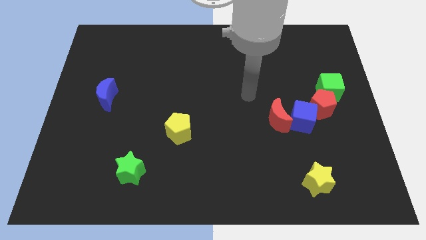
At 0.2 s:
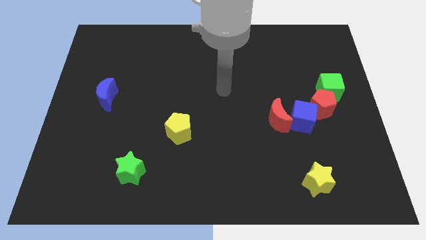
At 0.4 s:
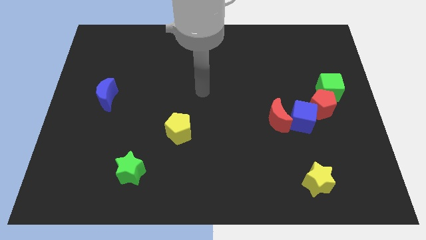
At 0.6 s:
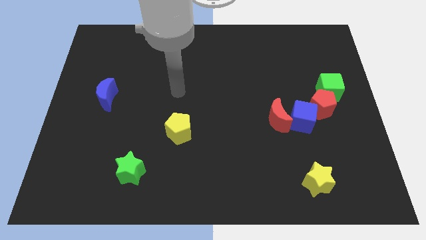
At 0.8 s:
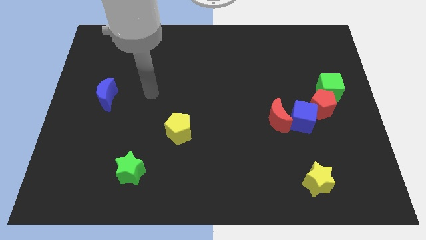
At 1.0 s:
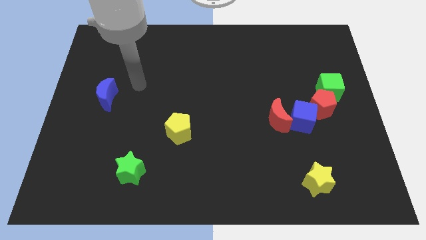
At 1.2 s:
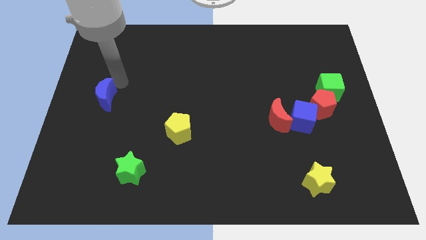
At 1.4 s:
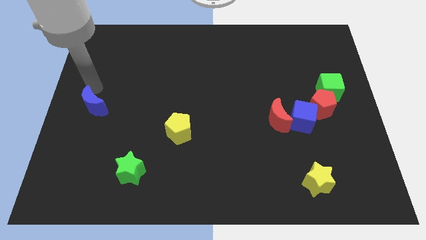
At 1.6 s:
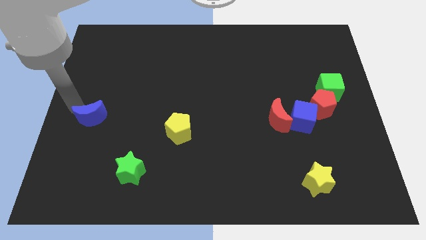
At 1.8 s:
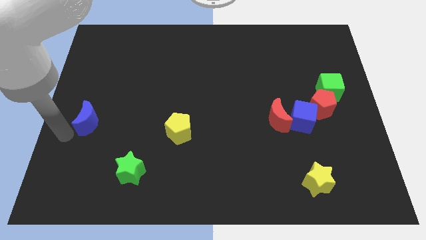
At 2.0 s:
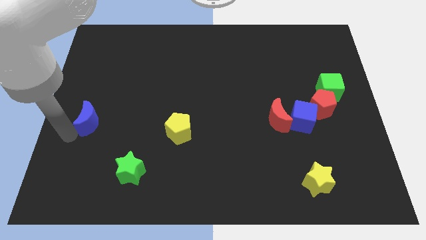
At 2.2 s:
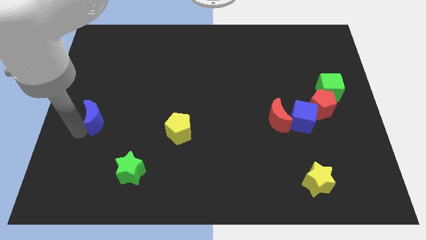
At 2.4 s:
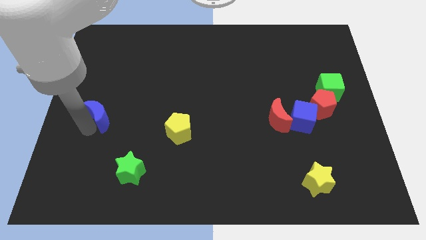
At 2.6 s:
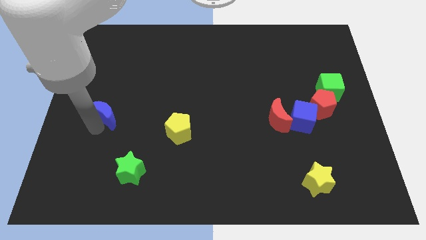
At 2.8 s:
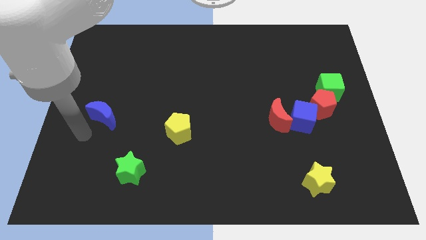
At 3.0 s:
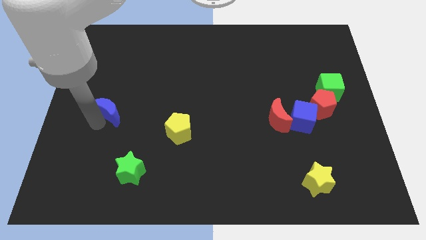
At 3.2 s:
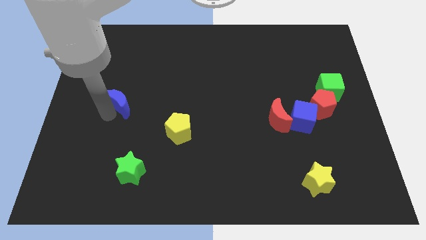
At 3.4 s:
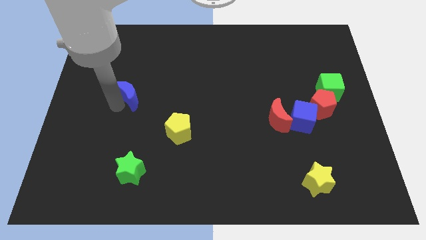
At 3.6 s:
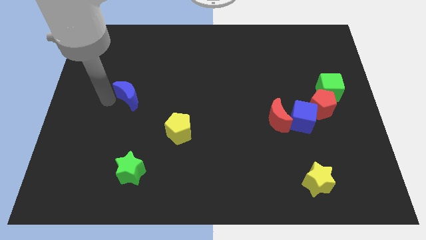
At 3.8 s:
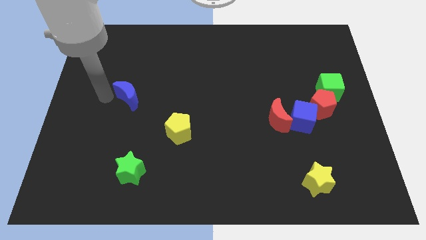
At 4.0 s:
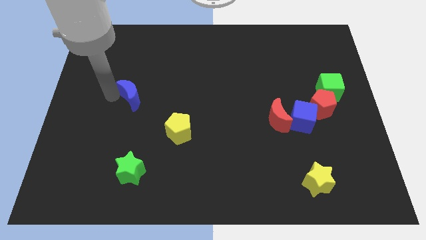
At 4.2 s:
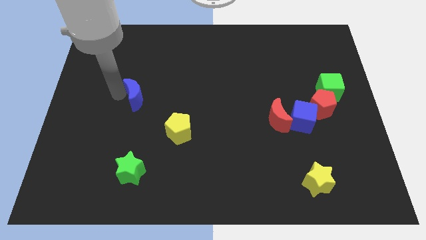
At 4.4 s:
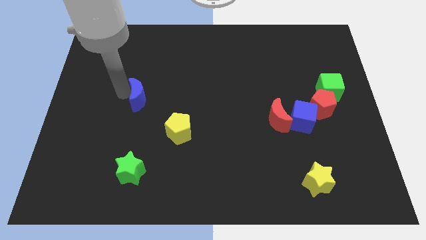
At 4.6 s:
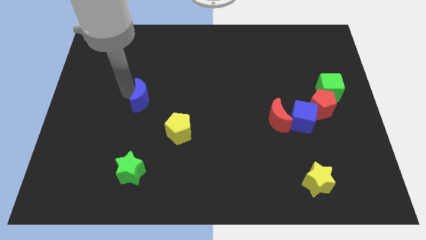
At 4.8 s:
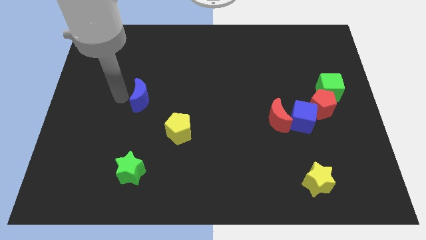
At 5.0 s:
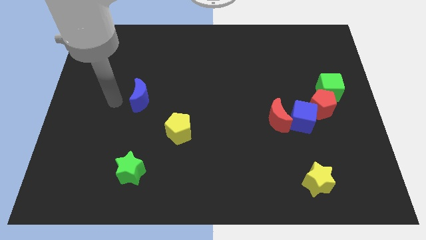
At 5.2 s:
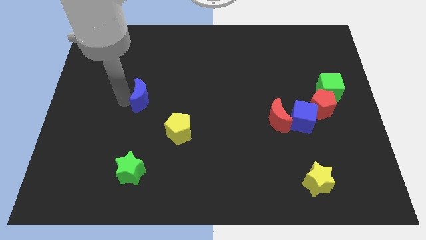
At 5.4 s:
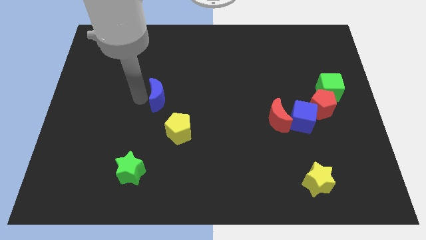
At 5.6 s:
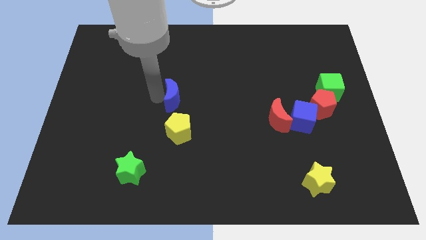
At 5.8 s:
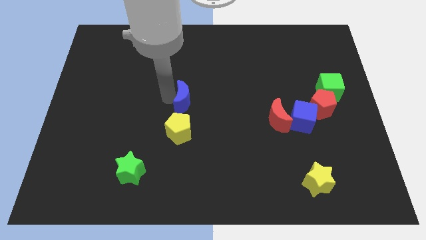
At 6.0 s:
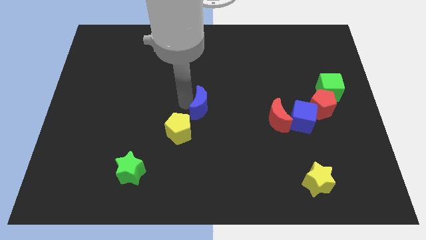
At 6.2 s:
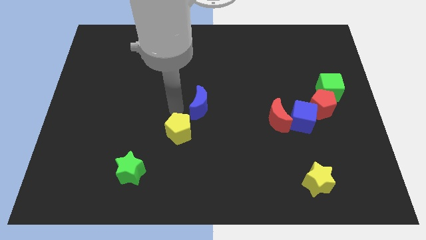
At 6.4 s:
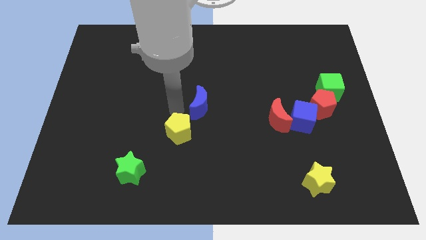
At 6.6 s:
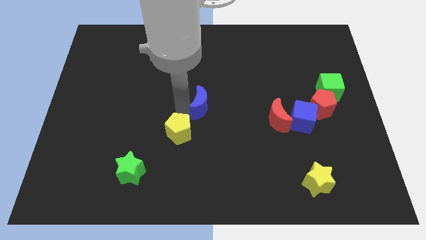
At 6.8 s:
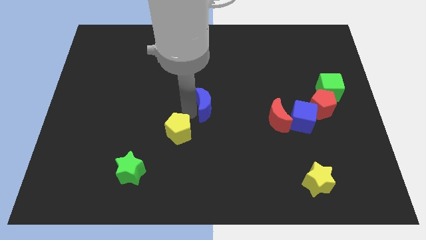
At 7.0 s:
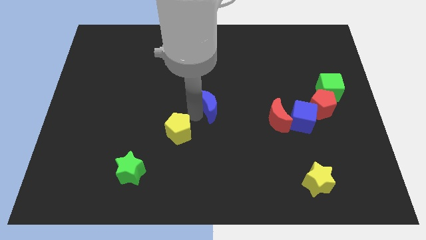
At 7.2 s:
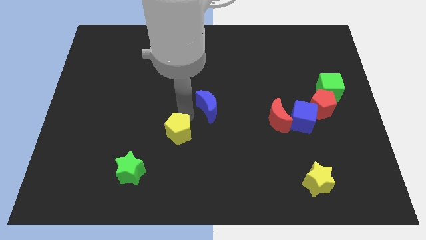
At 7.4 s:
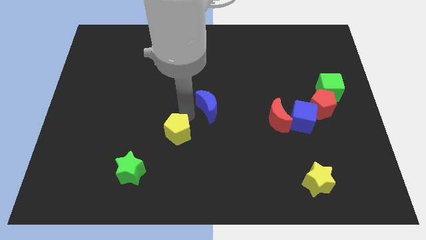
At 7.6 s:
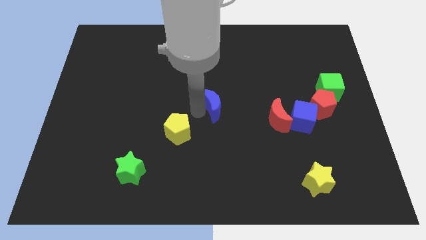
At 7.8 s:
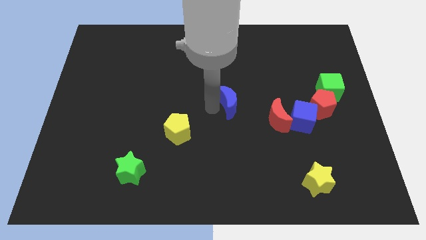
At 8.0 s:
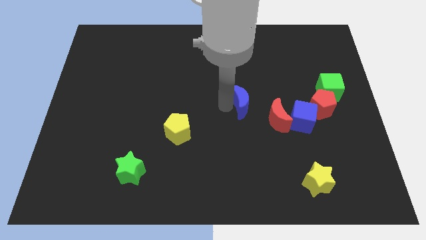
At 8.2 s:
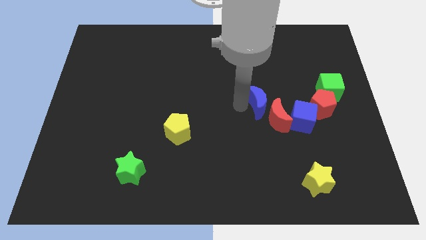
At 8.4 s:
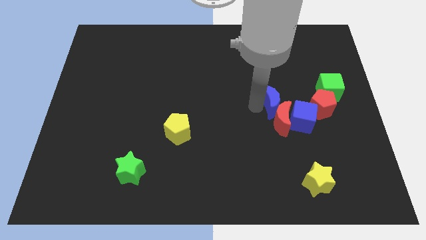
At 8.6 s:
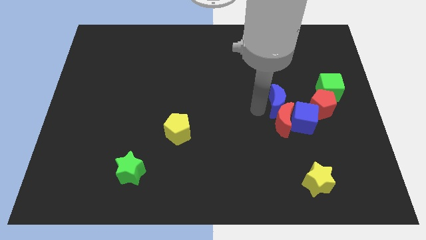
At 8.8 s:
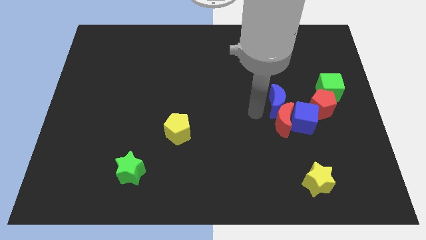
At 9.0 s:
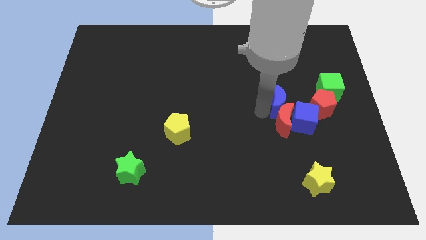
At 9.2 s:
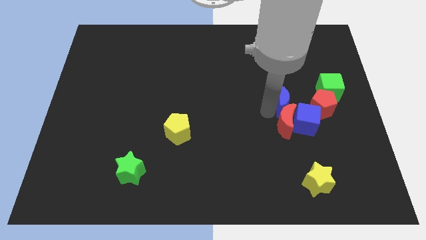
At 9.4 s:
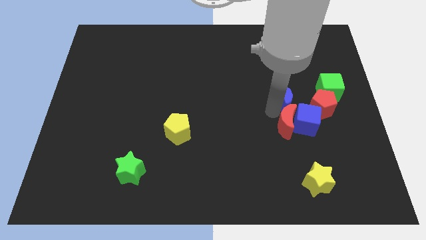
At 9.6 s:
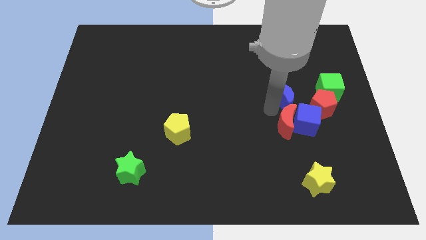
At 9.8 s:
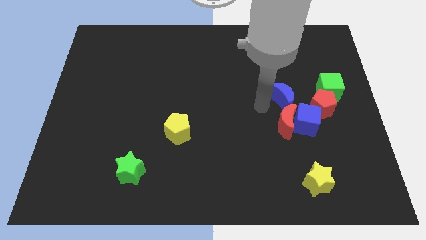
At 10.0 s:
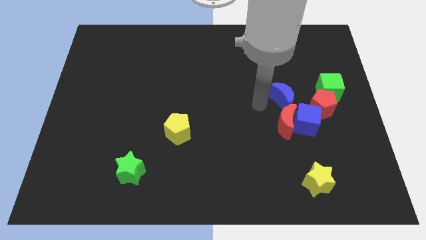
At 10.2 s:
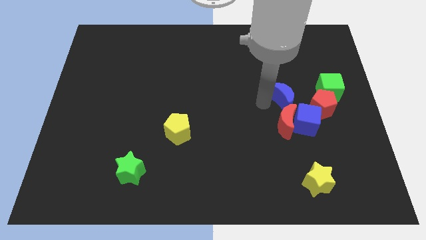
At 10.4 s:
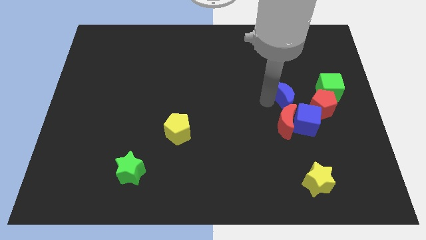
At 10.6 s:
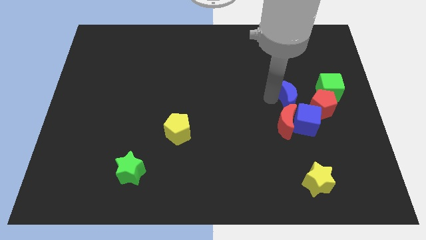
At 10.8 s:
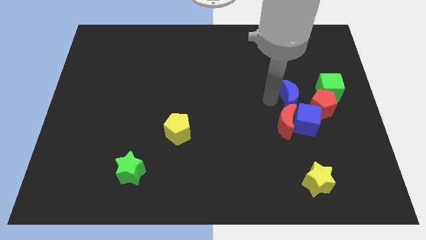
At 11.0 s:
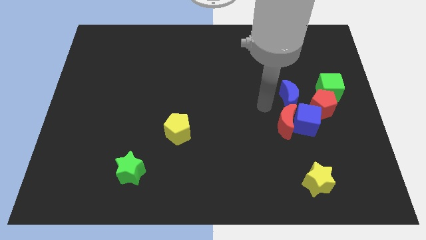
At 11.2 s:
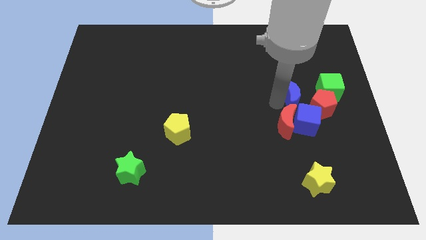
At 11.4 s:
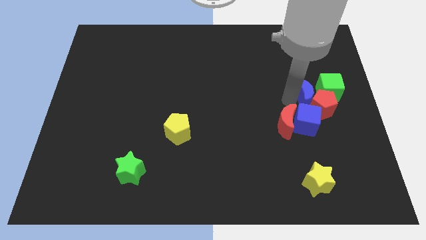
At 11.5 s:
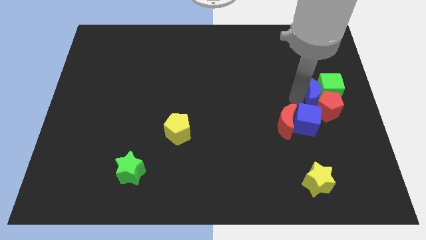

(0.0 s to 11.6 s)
move the blue moon close to the green cube

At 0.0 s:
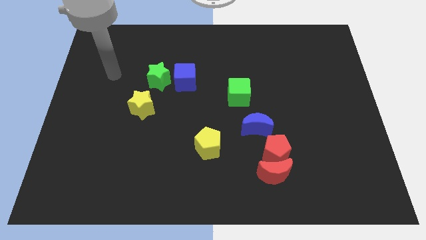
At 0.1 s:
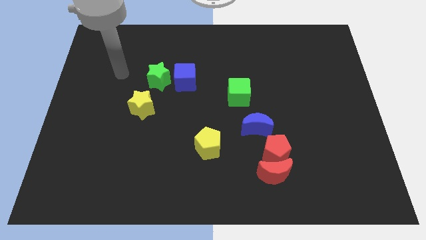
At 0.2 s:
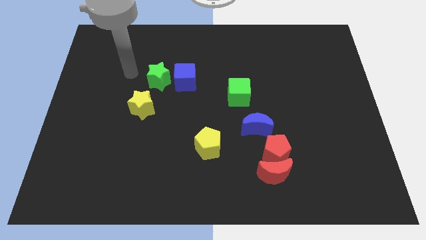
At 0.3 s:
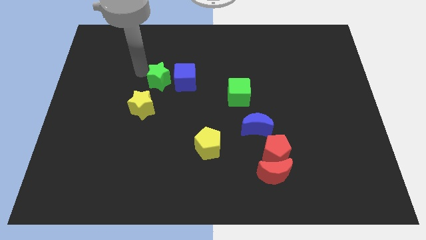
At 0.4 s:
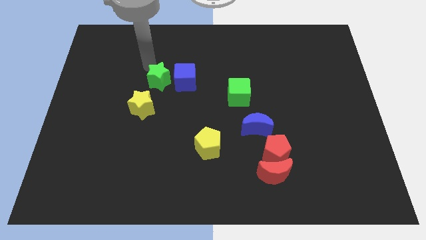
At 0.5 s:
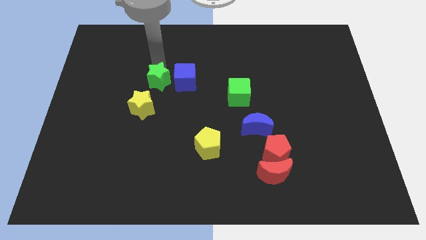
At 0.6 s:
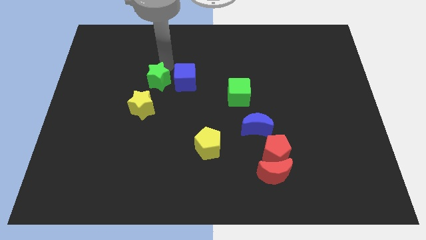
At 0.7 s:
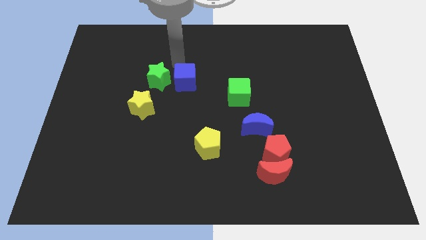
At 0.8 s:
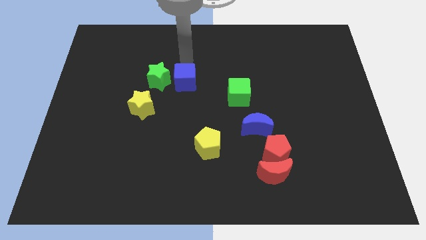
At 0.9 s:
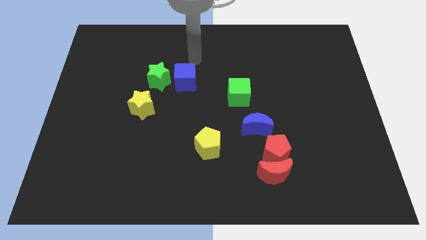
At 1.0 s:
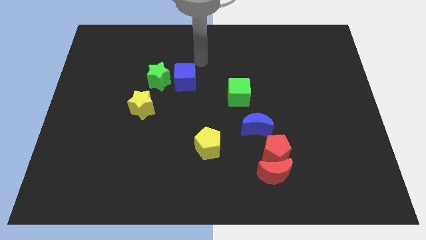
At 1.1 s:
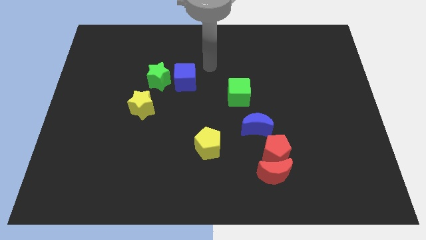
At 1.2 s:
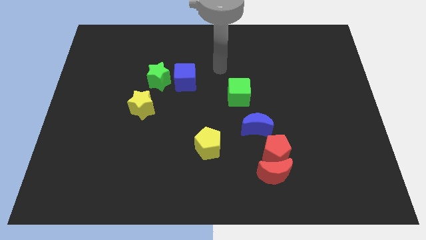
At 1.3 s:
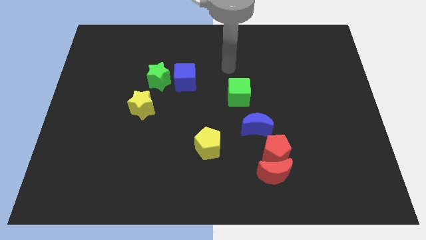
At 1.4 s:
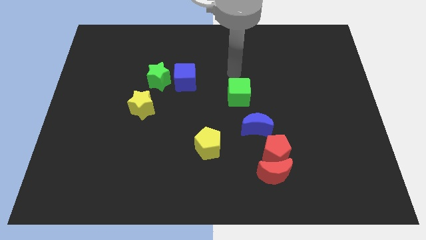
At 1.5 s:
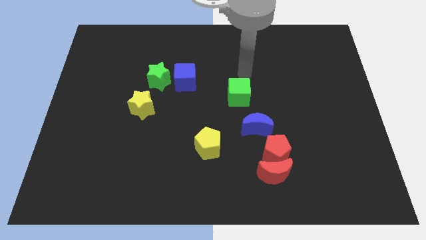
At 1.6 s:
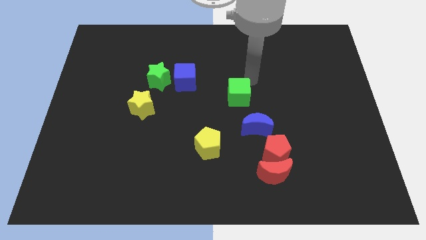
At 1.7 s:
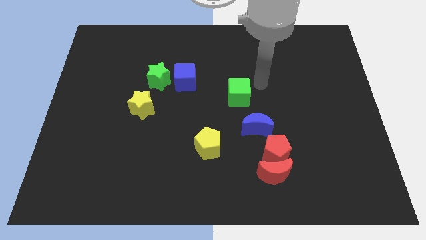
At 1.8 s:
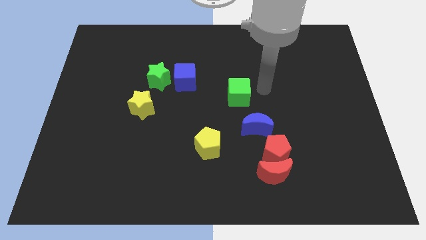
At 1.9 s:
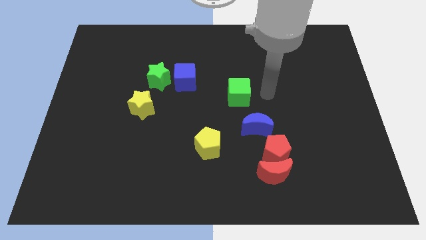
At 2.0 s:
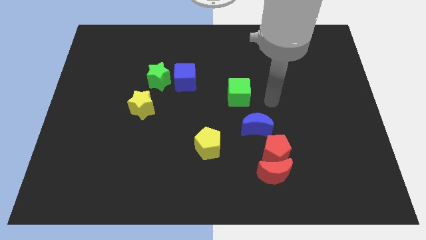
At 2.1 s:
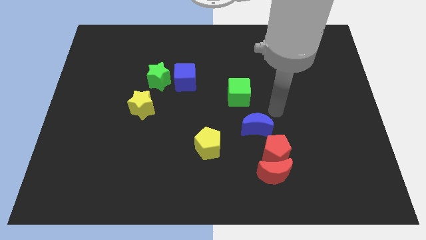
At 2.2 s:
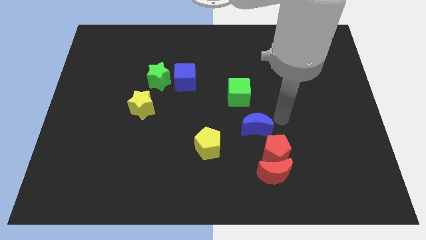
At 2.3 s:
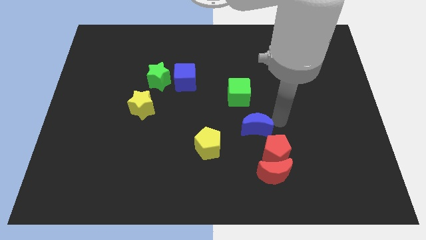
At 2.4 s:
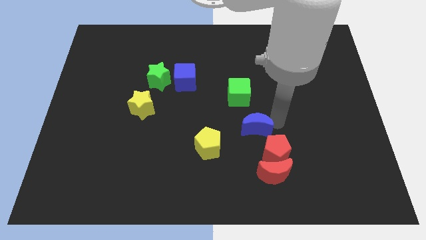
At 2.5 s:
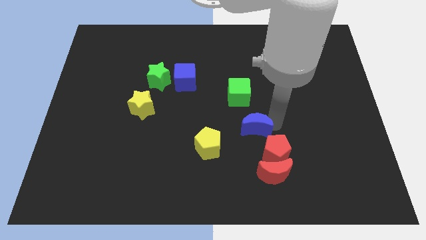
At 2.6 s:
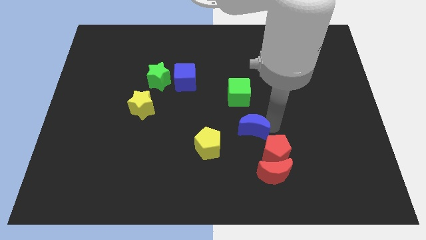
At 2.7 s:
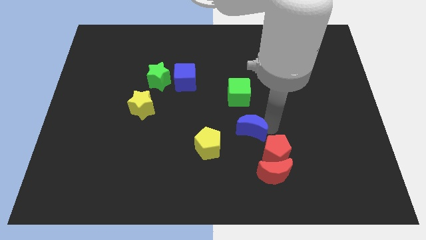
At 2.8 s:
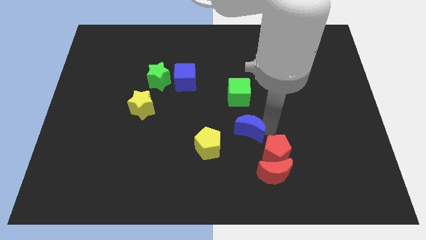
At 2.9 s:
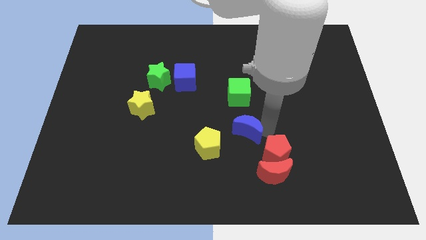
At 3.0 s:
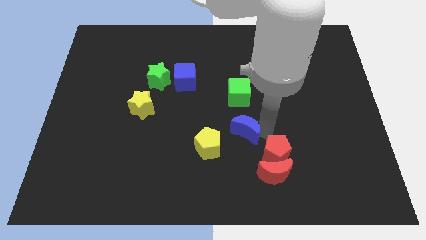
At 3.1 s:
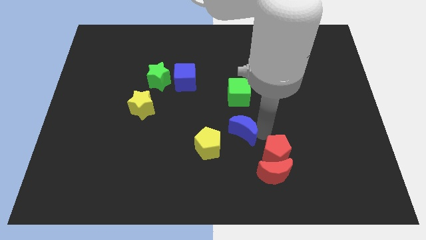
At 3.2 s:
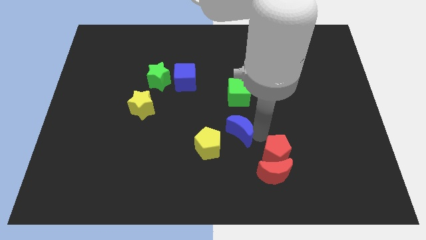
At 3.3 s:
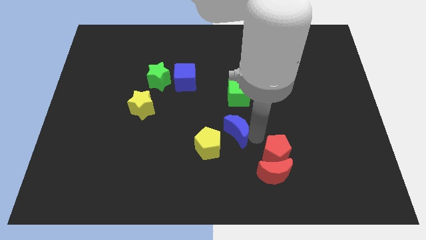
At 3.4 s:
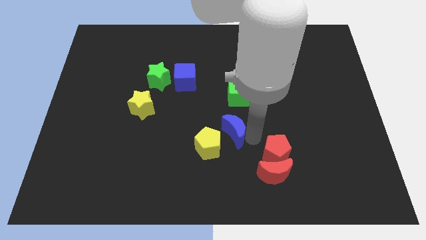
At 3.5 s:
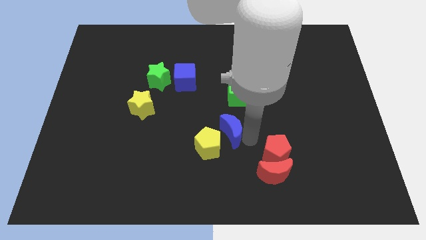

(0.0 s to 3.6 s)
put the blue moon close to the yellow pentagon
